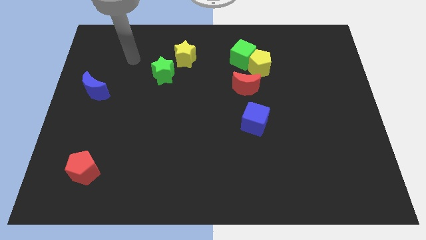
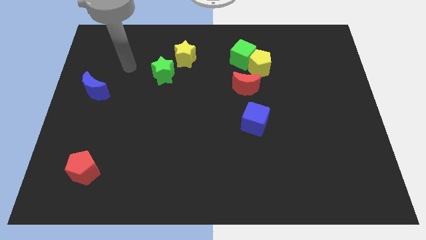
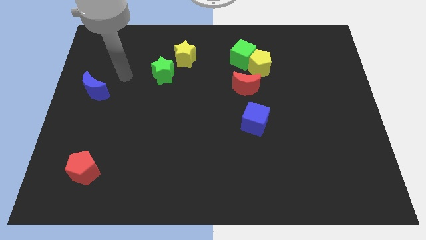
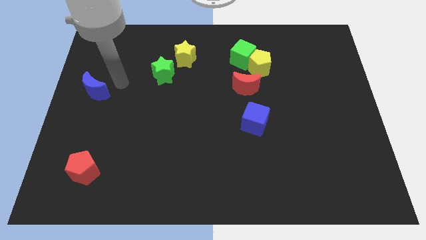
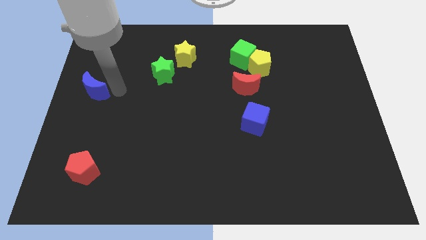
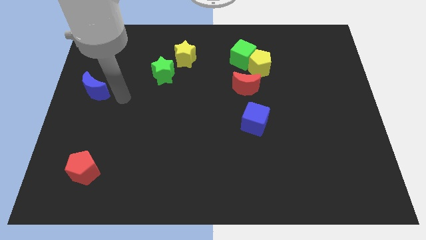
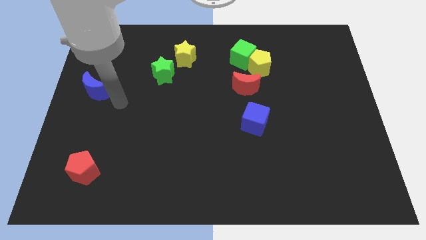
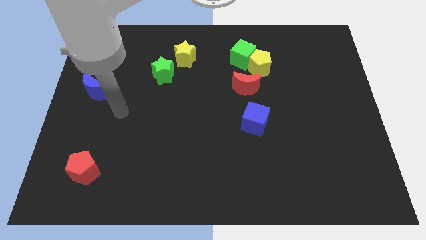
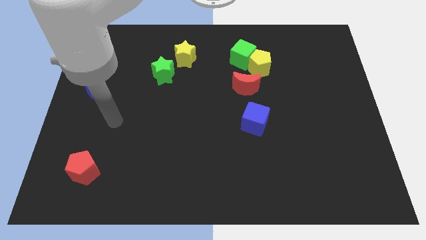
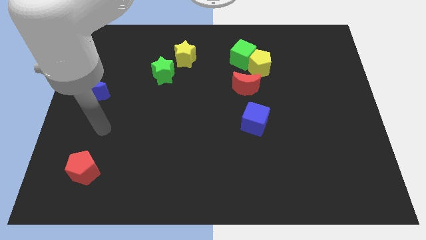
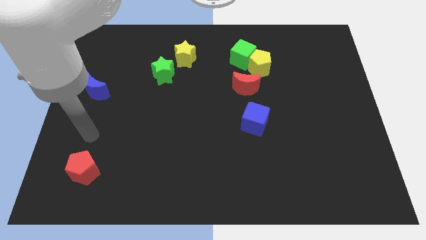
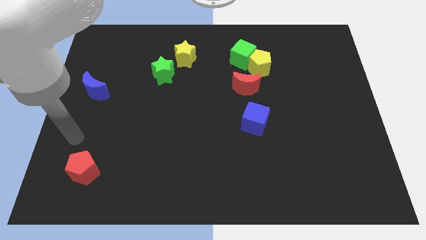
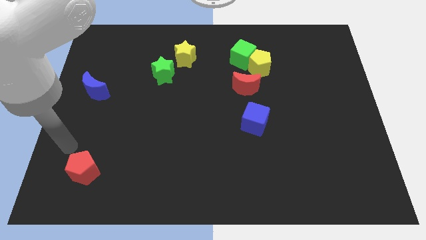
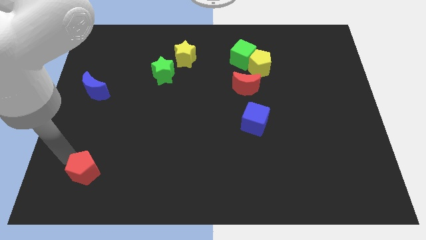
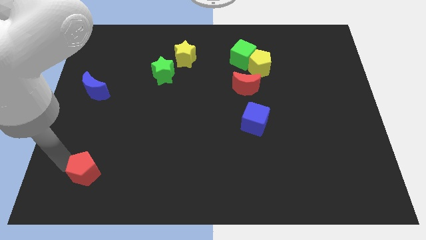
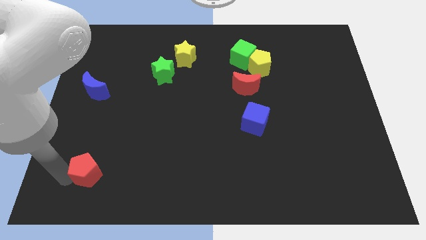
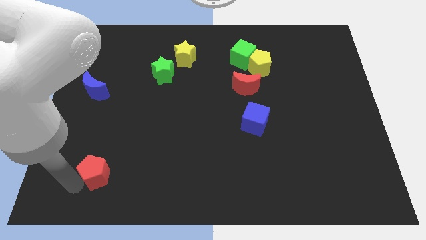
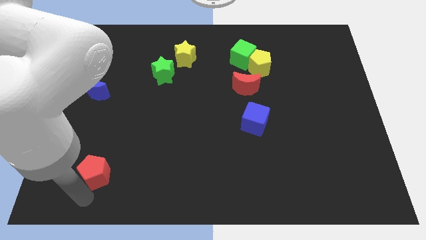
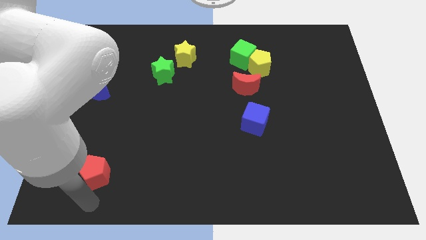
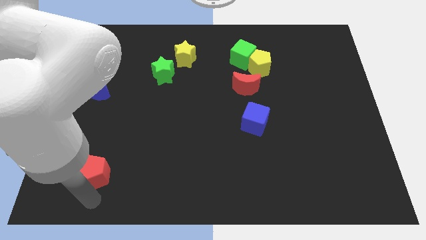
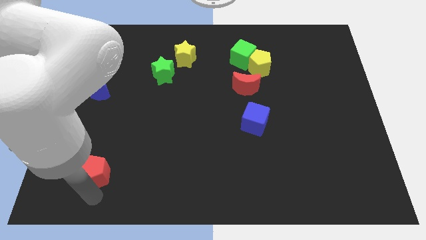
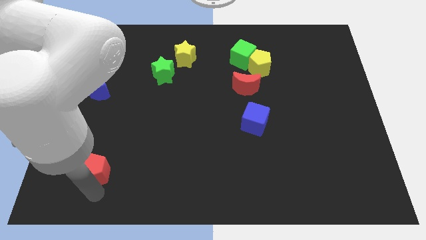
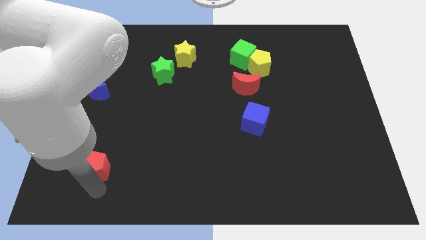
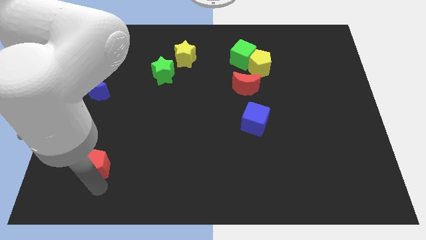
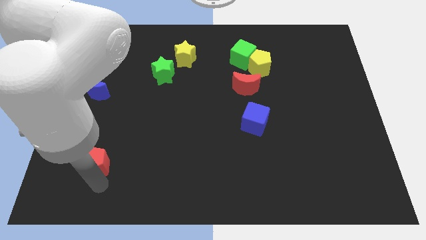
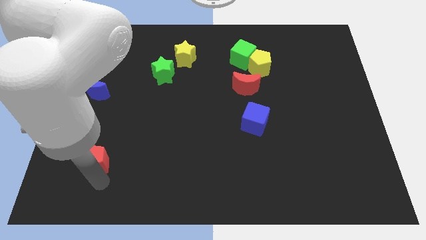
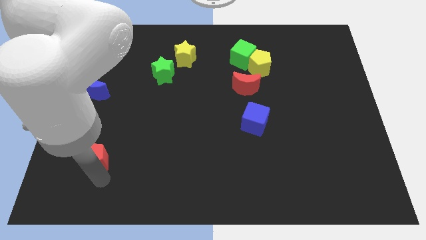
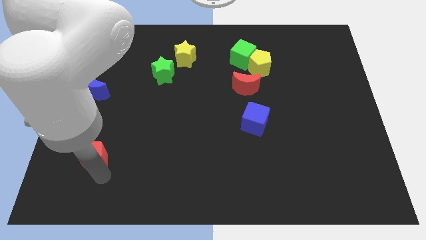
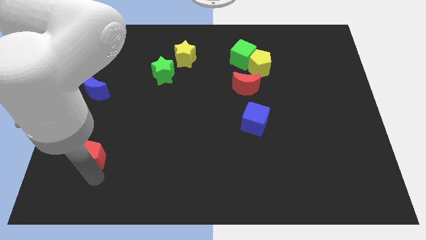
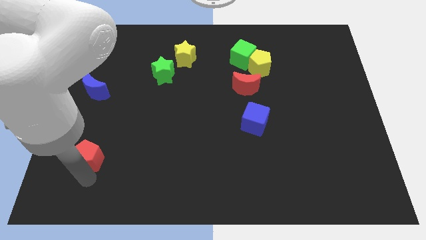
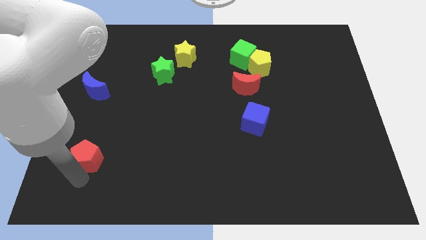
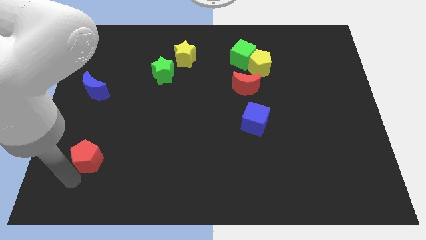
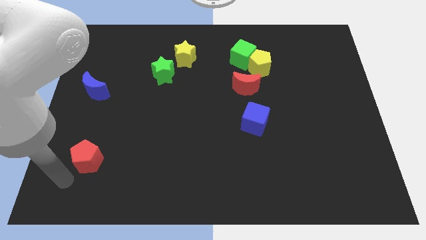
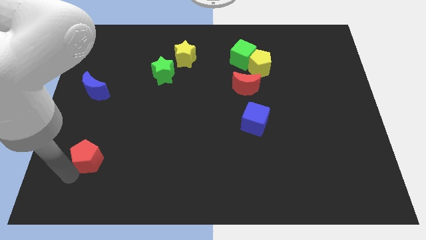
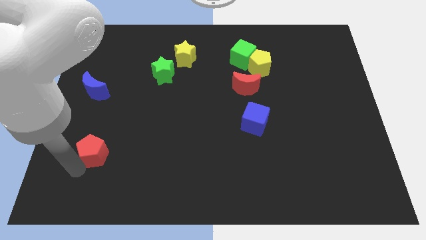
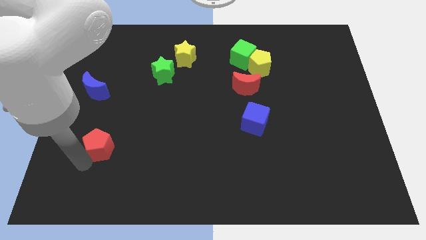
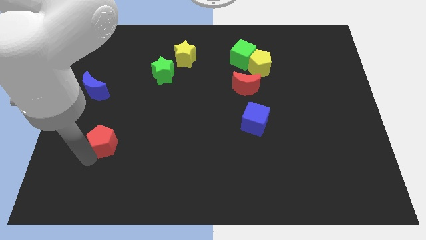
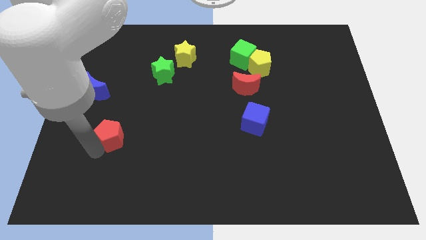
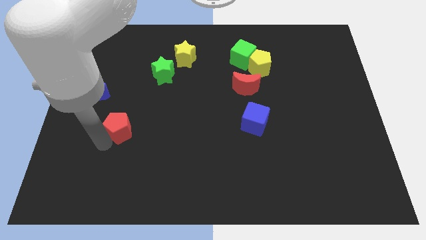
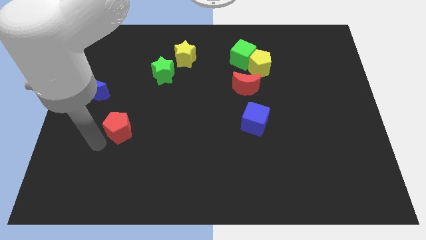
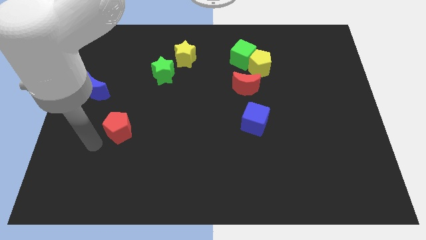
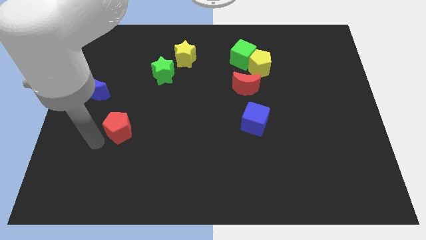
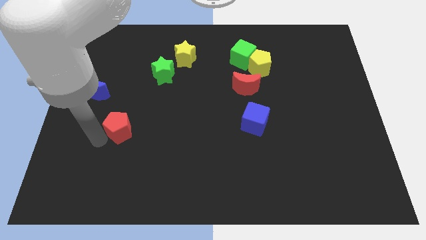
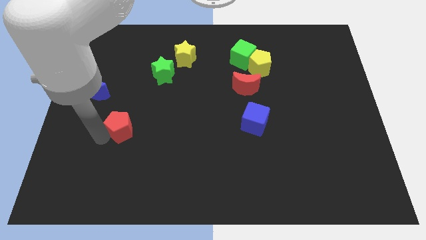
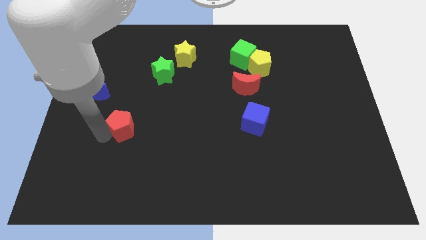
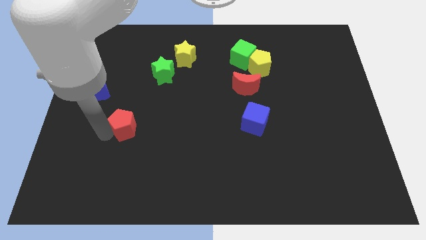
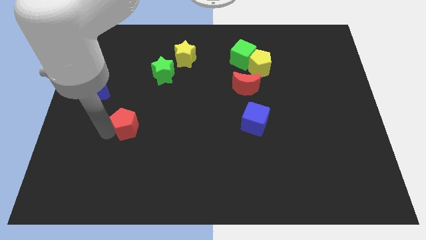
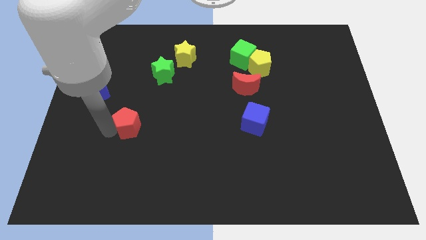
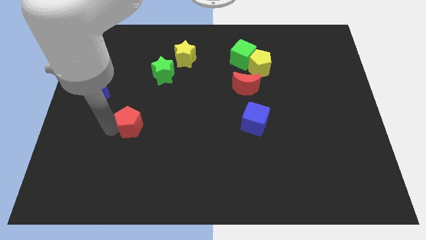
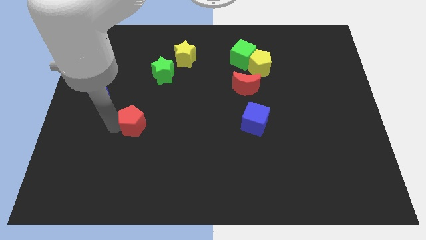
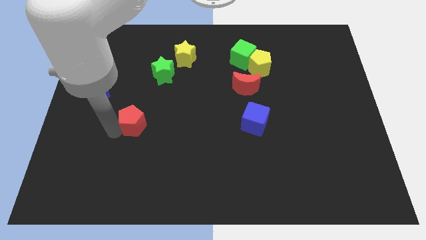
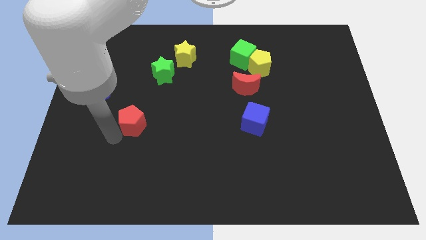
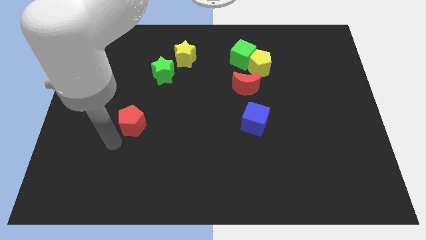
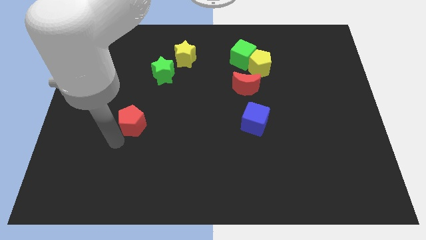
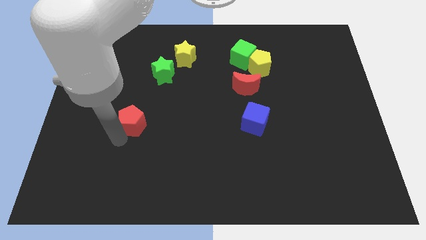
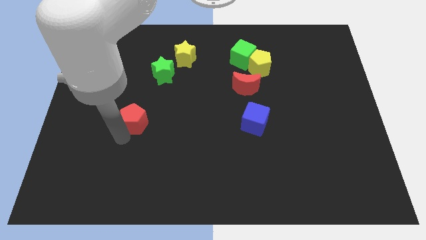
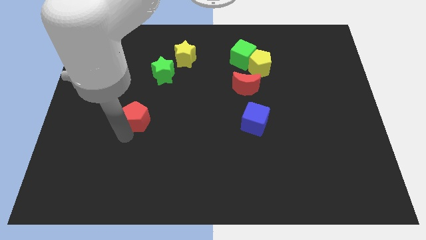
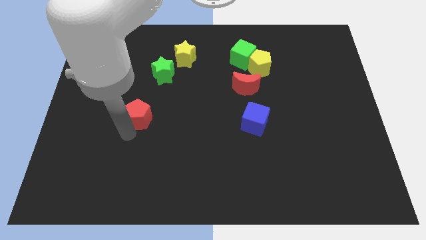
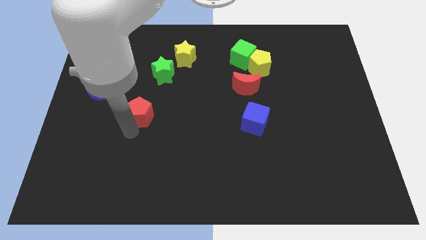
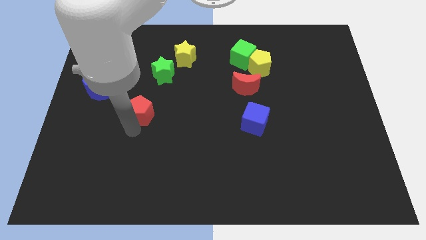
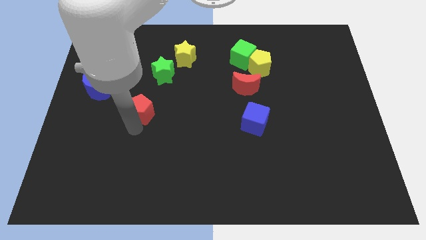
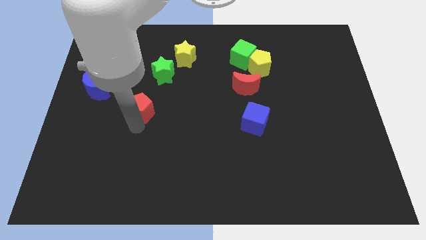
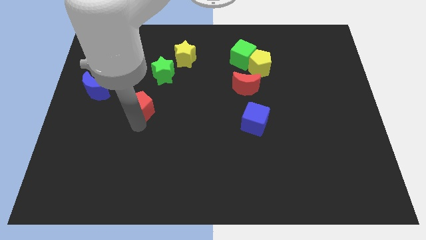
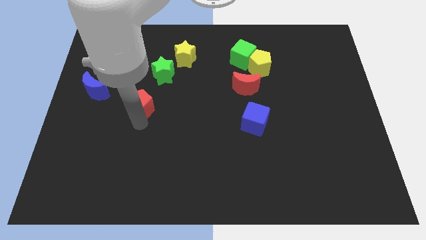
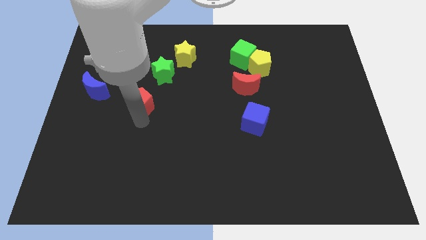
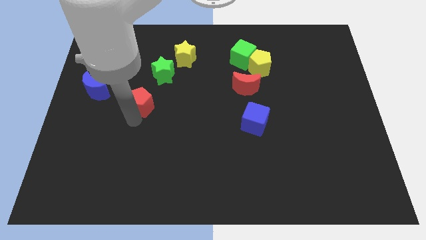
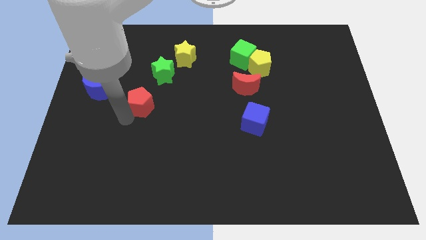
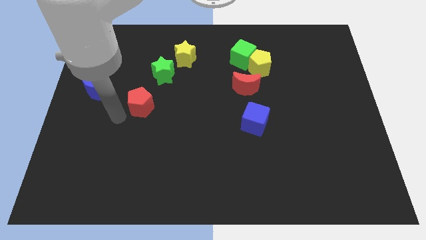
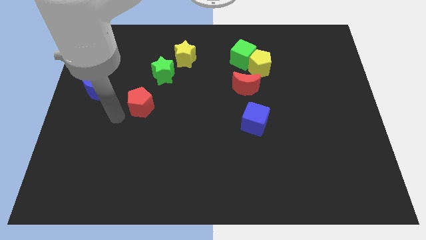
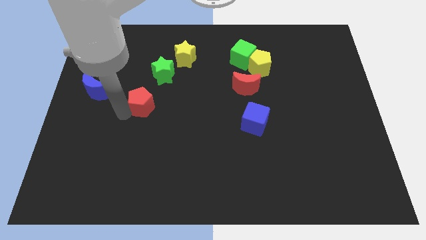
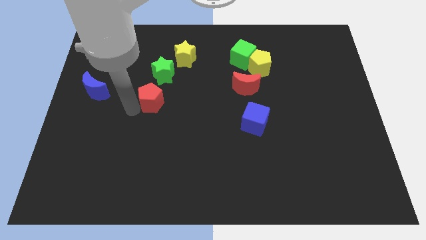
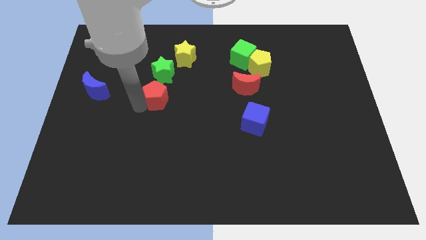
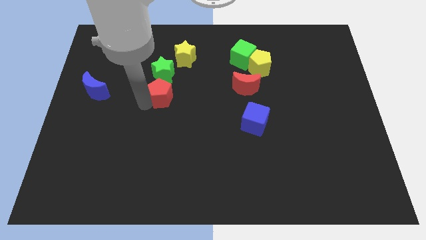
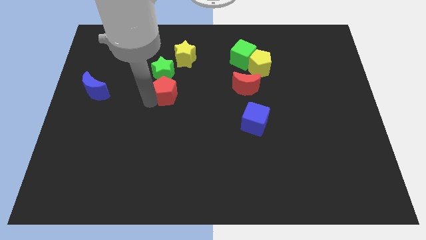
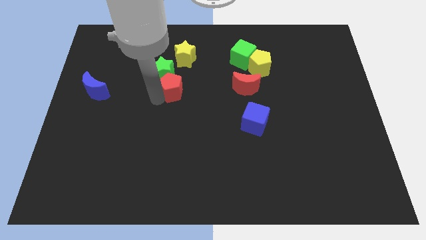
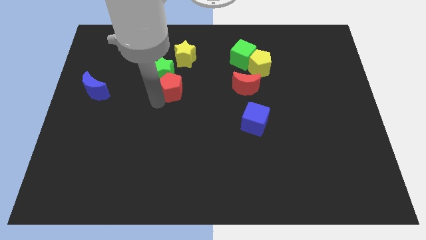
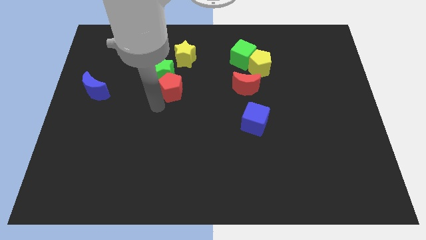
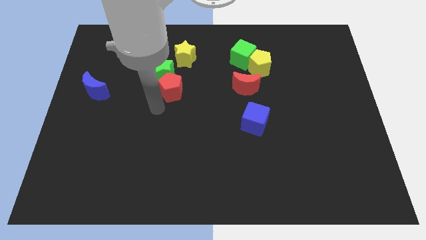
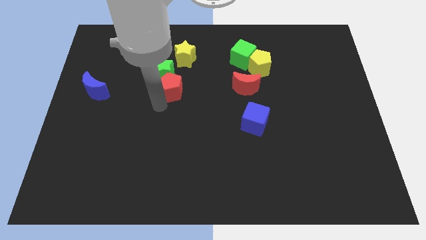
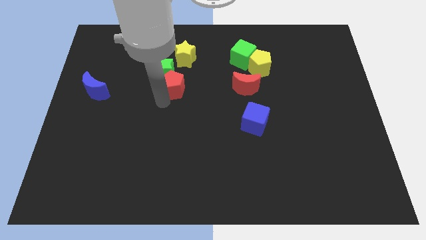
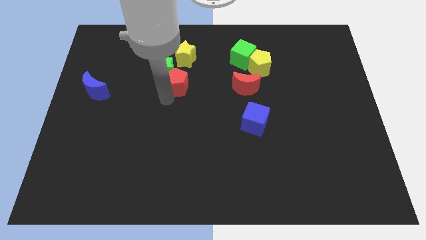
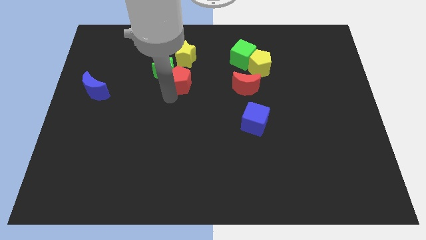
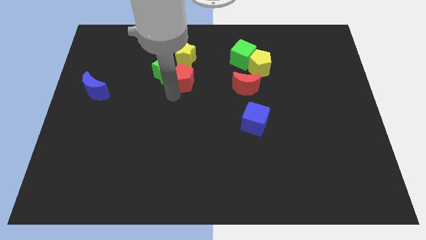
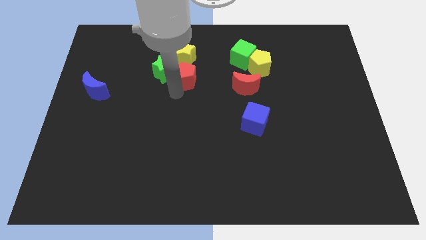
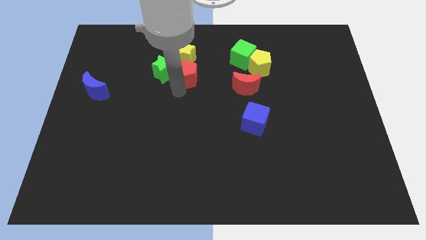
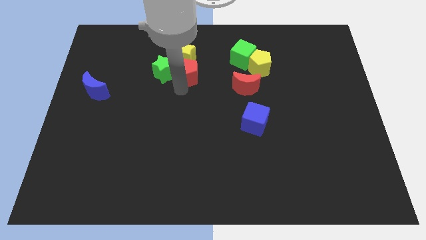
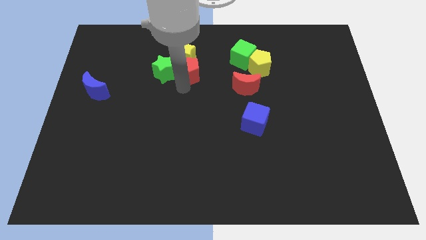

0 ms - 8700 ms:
move the red pentagon close to the yellow star
